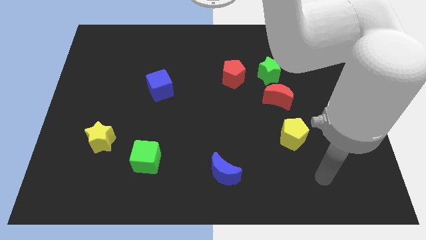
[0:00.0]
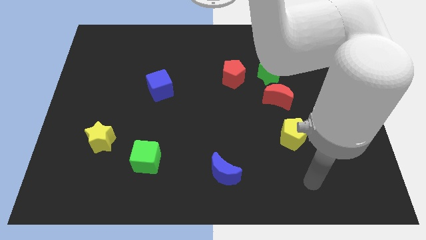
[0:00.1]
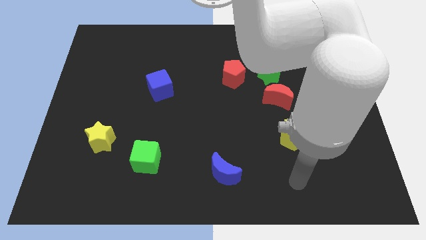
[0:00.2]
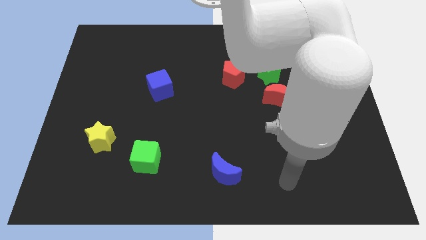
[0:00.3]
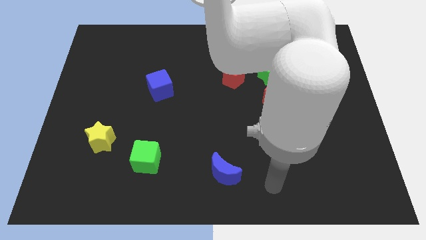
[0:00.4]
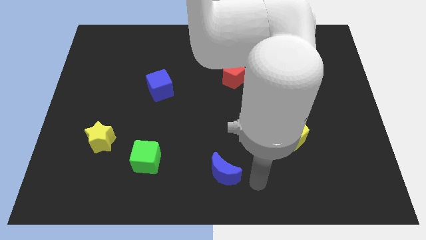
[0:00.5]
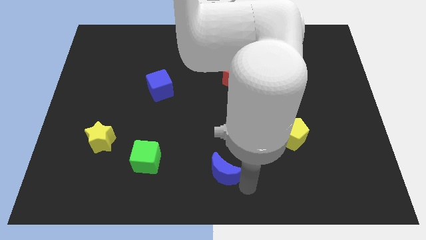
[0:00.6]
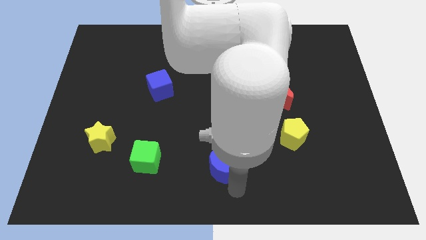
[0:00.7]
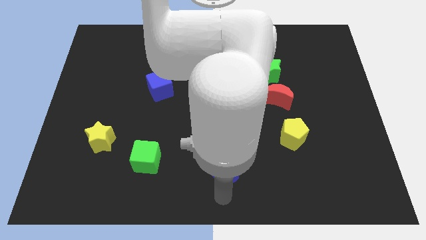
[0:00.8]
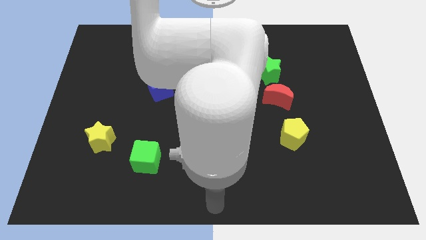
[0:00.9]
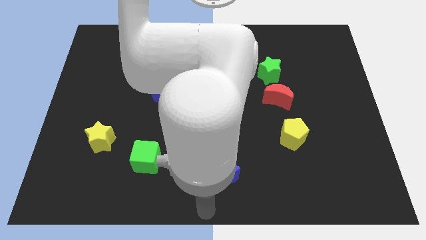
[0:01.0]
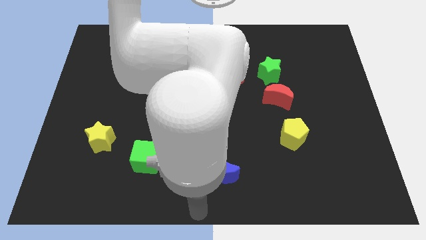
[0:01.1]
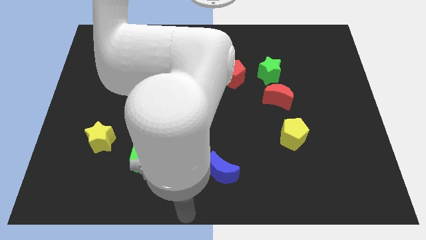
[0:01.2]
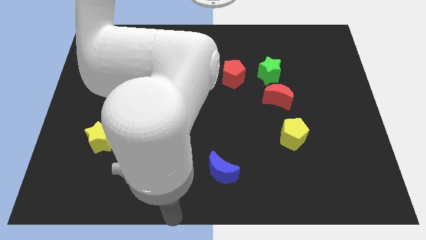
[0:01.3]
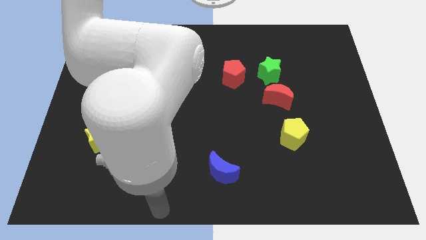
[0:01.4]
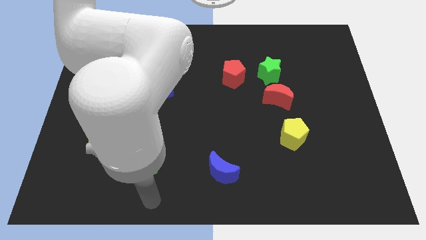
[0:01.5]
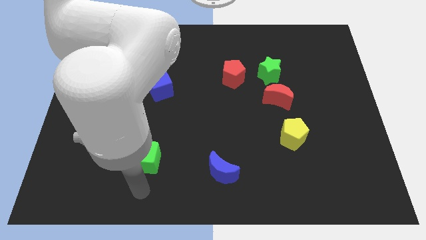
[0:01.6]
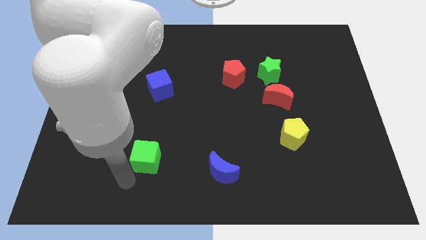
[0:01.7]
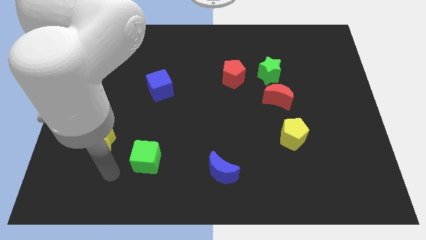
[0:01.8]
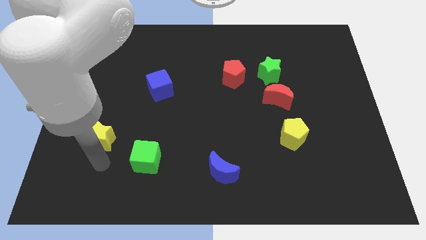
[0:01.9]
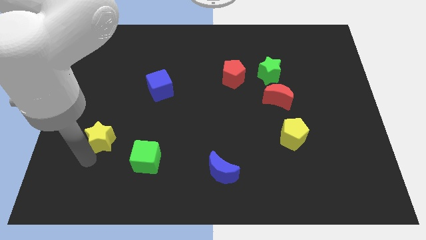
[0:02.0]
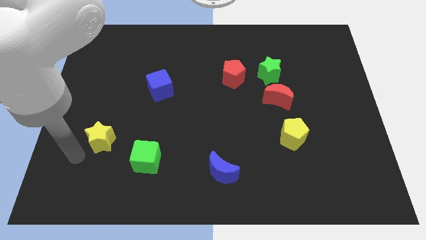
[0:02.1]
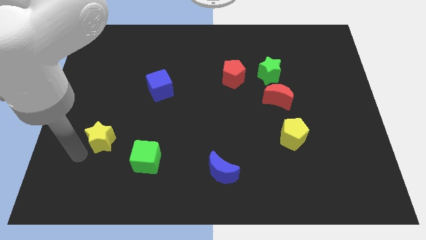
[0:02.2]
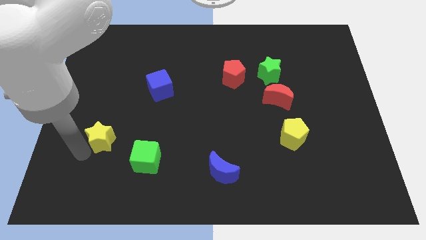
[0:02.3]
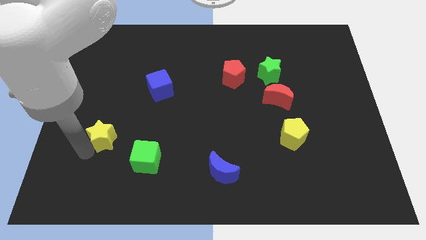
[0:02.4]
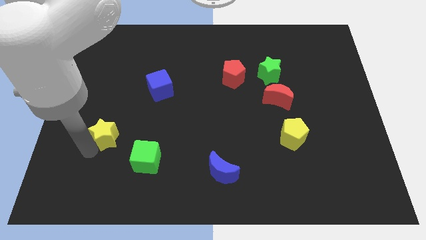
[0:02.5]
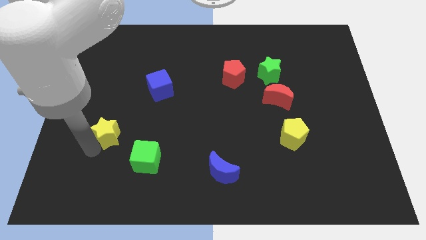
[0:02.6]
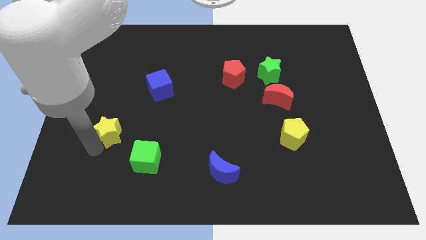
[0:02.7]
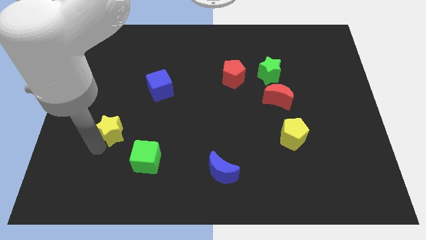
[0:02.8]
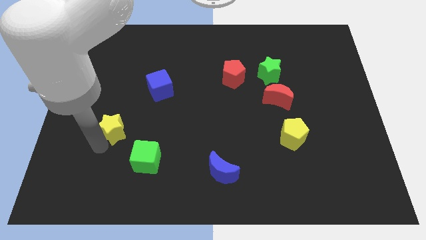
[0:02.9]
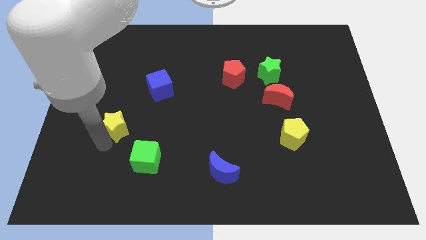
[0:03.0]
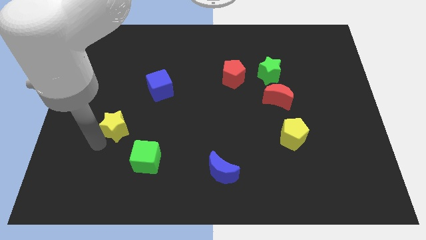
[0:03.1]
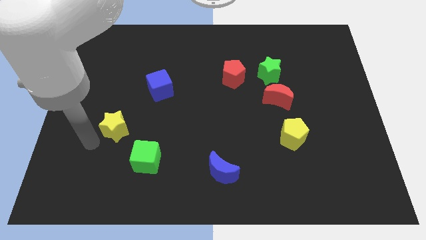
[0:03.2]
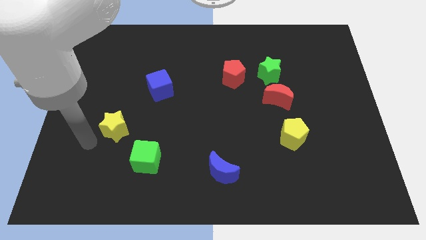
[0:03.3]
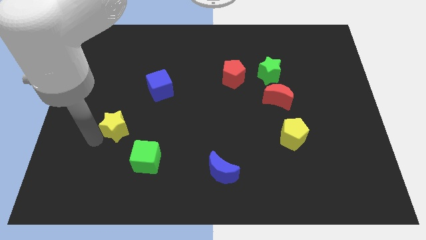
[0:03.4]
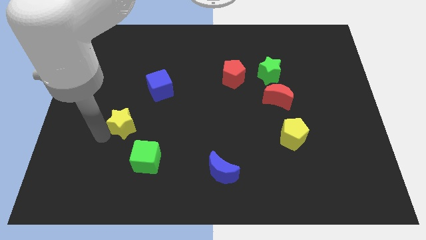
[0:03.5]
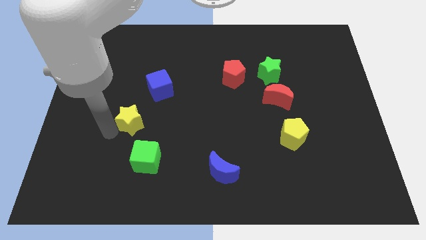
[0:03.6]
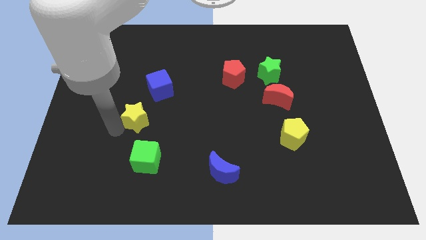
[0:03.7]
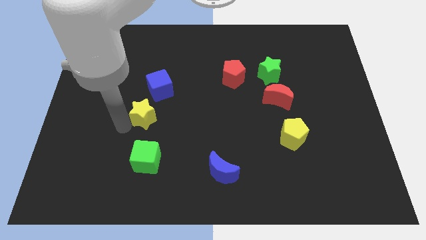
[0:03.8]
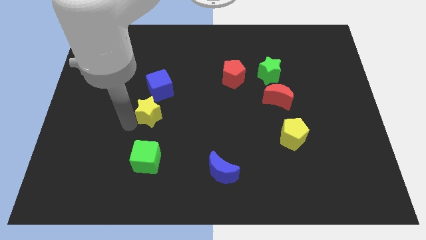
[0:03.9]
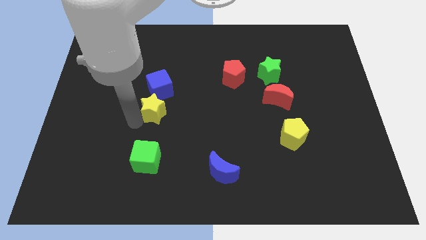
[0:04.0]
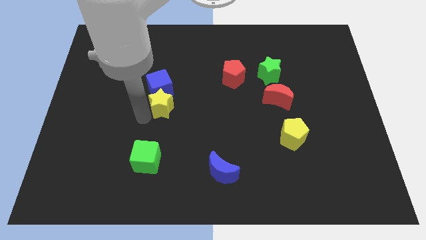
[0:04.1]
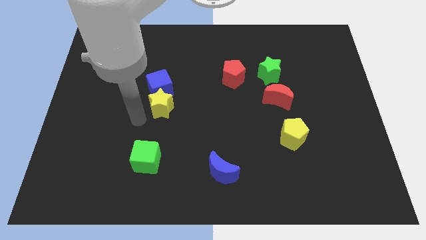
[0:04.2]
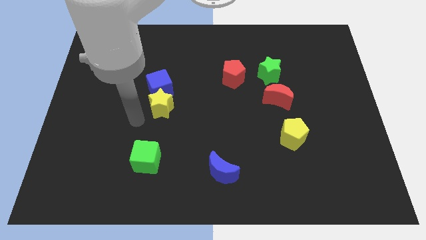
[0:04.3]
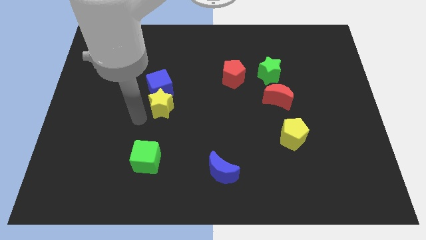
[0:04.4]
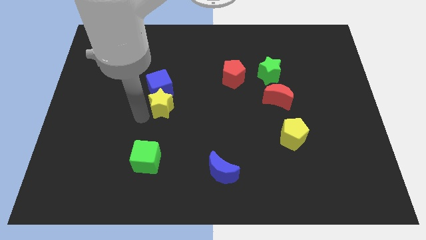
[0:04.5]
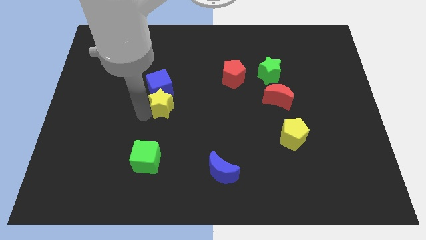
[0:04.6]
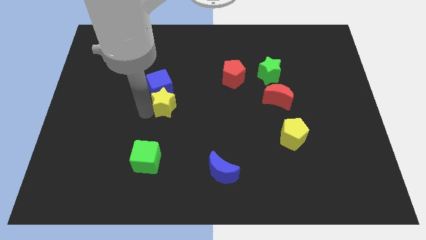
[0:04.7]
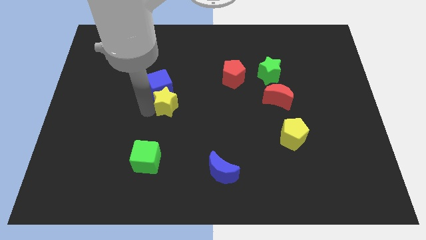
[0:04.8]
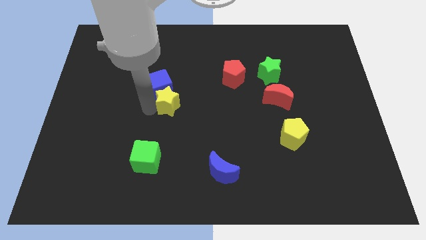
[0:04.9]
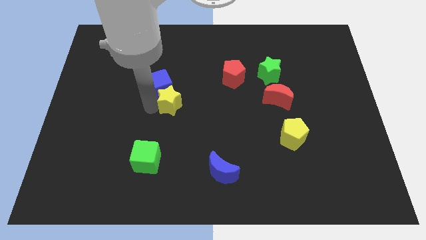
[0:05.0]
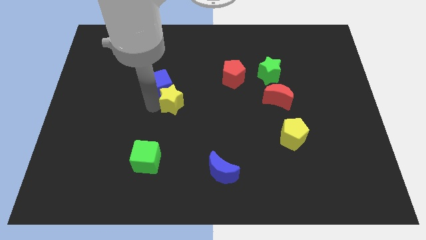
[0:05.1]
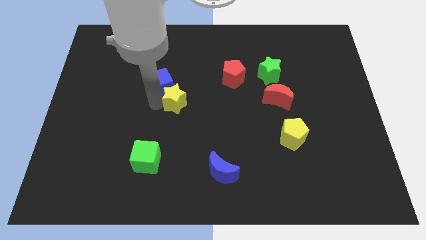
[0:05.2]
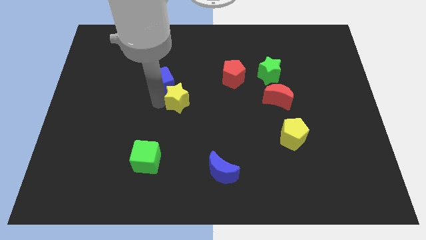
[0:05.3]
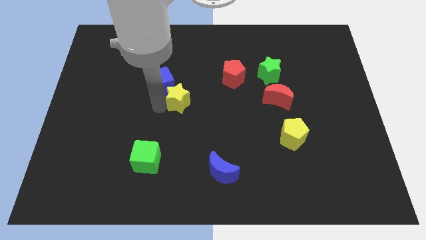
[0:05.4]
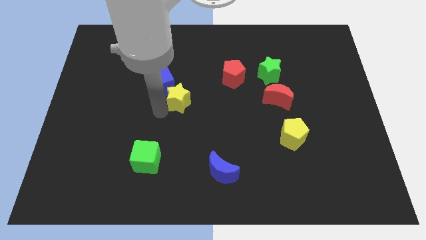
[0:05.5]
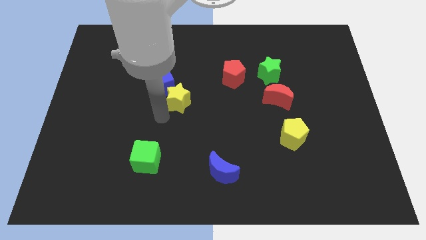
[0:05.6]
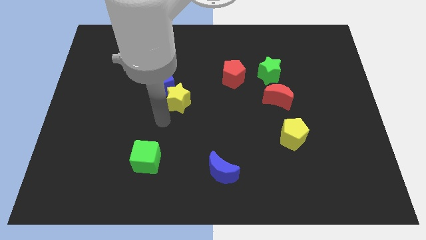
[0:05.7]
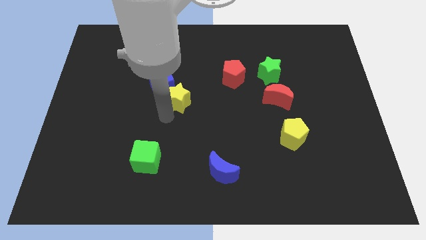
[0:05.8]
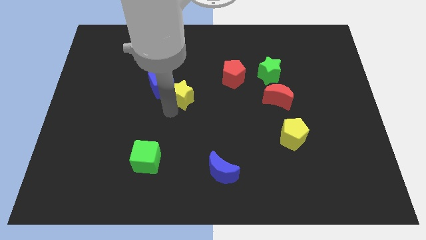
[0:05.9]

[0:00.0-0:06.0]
move the yellow star up and right diagonally

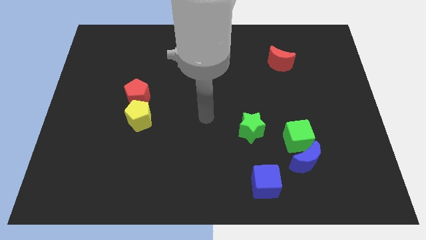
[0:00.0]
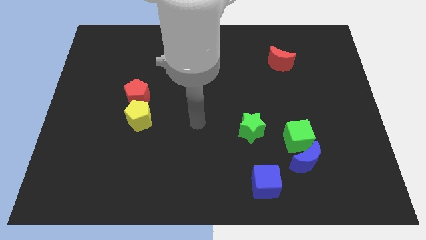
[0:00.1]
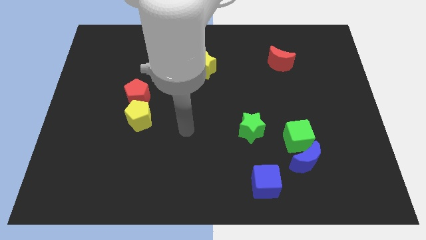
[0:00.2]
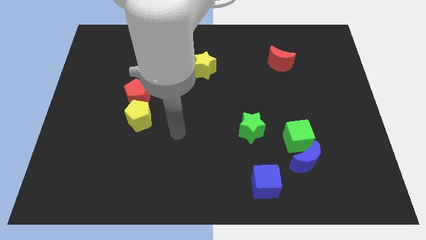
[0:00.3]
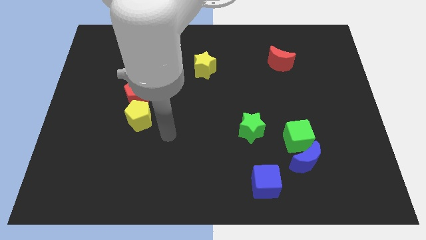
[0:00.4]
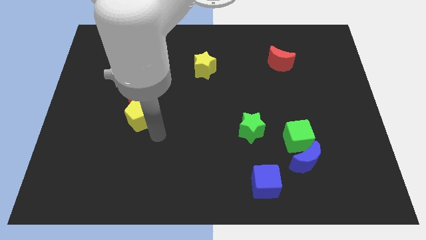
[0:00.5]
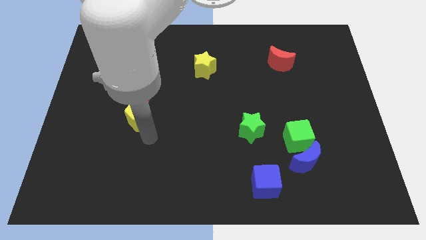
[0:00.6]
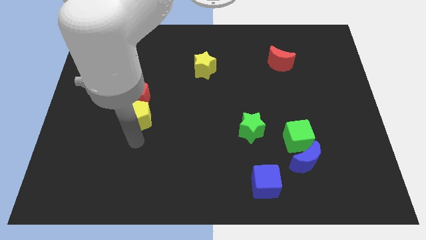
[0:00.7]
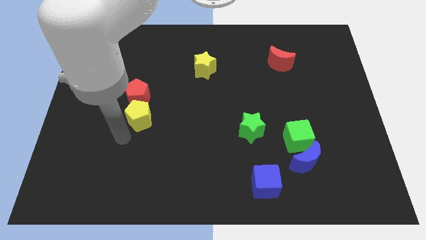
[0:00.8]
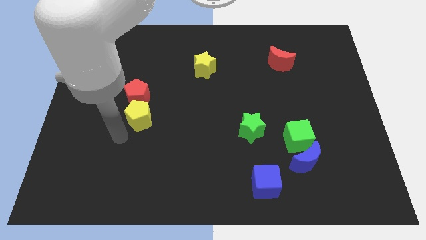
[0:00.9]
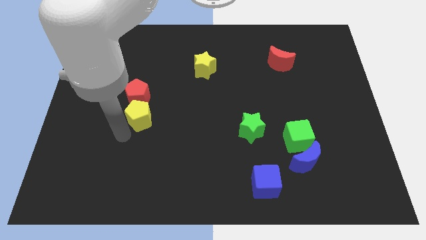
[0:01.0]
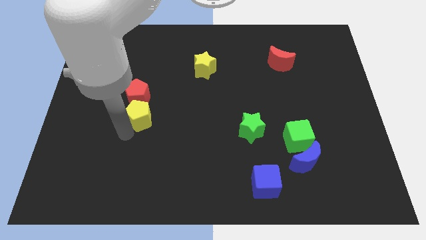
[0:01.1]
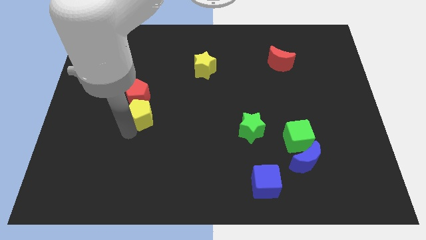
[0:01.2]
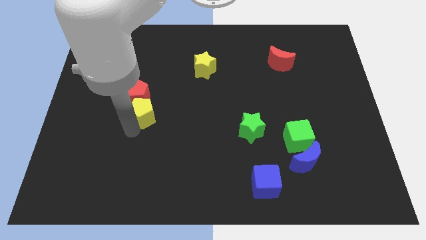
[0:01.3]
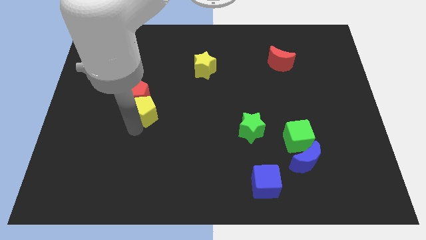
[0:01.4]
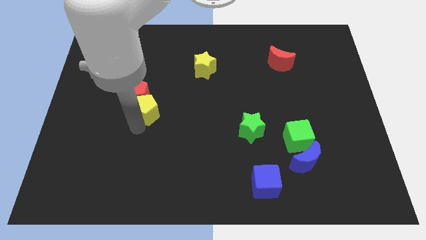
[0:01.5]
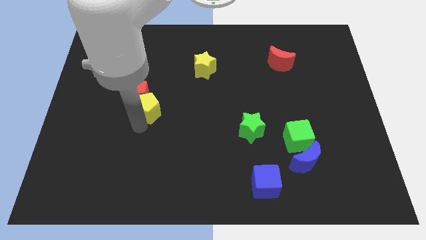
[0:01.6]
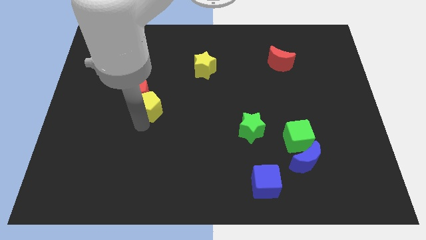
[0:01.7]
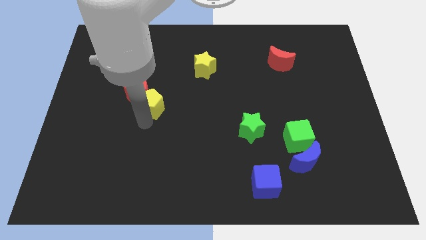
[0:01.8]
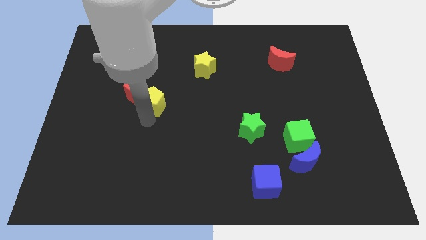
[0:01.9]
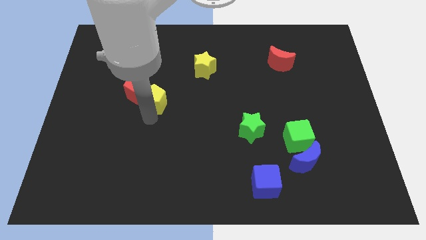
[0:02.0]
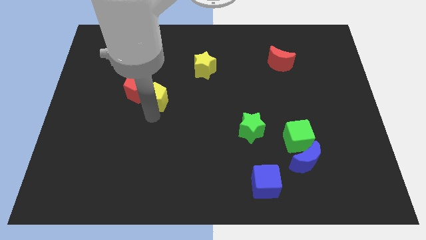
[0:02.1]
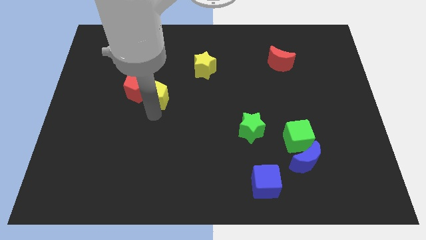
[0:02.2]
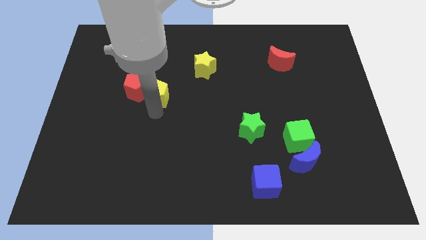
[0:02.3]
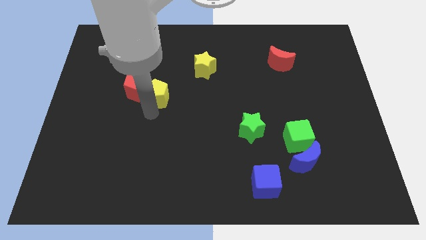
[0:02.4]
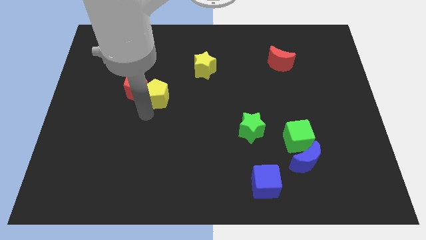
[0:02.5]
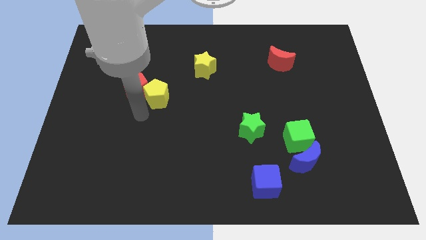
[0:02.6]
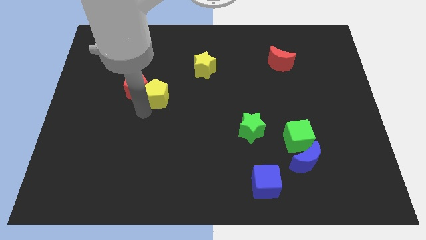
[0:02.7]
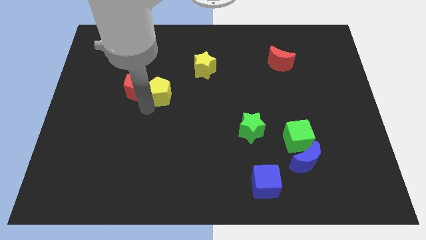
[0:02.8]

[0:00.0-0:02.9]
push the yellow pentagon upwards somewhat
